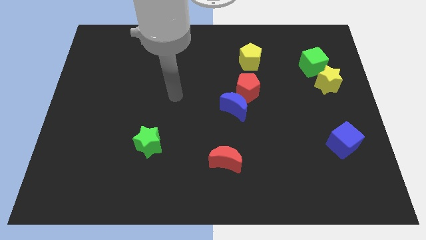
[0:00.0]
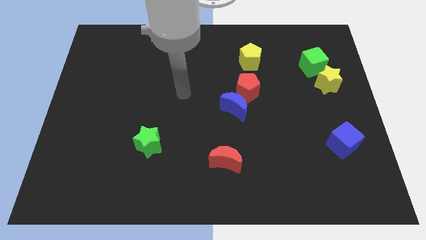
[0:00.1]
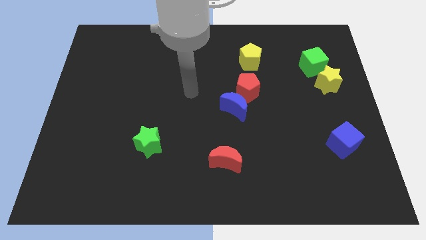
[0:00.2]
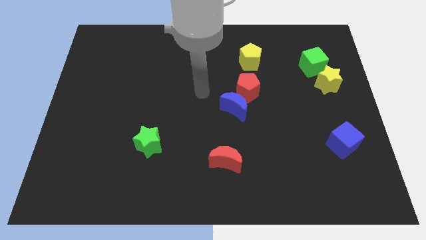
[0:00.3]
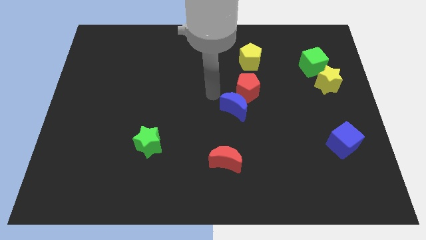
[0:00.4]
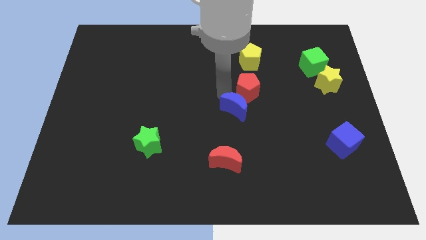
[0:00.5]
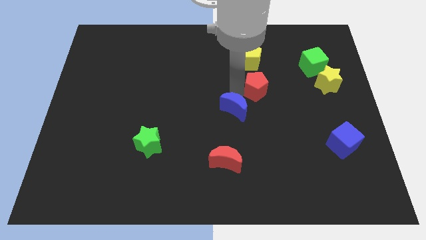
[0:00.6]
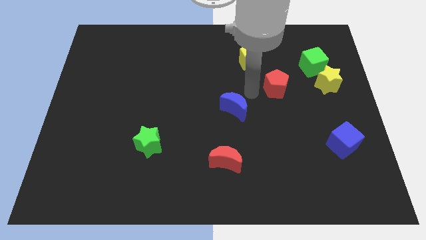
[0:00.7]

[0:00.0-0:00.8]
move the blue moon away from the red pentagon

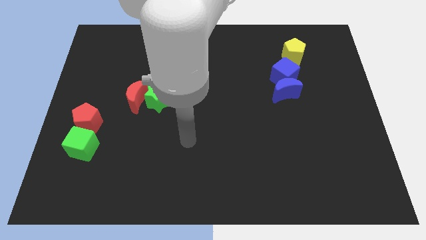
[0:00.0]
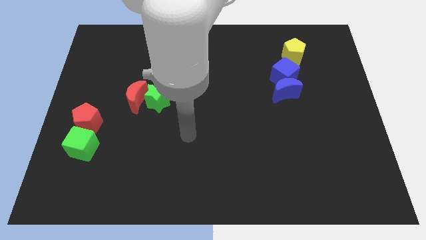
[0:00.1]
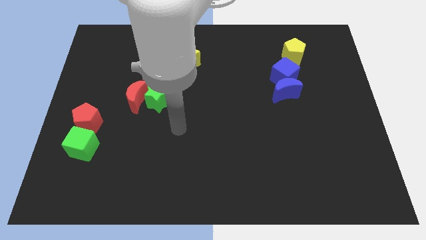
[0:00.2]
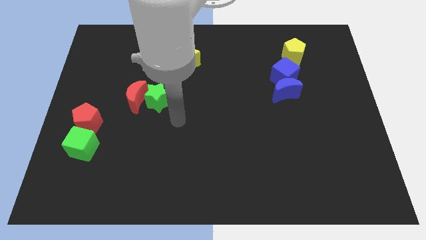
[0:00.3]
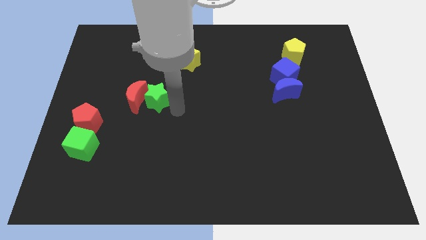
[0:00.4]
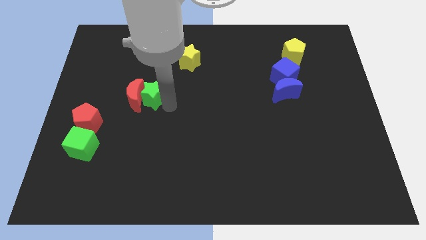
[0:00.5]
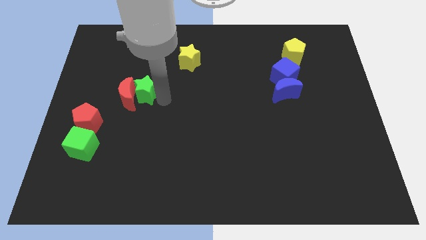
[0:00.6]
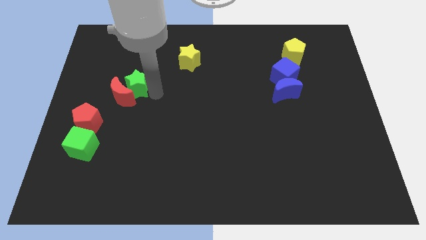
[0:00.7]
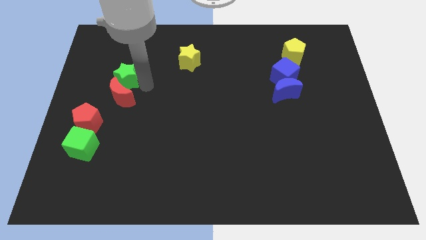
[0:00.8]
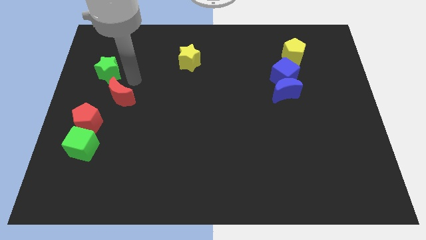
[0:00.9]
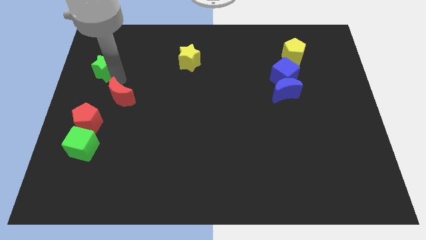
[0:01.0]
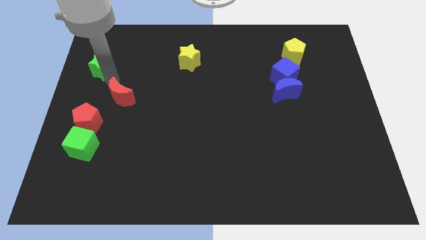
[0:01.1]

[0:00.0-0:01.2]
separate the red moon from the green star

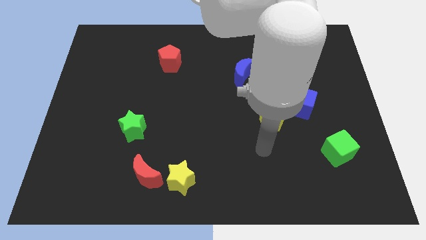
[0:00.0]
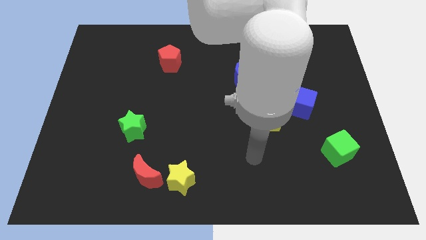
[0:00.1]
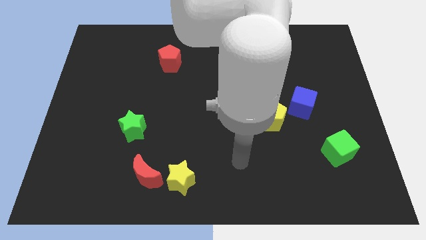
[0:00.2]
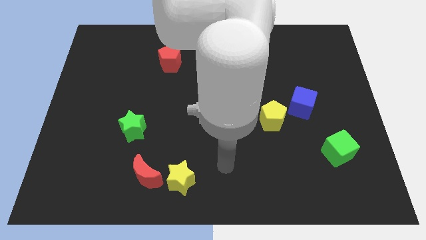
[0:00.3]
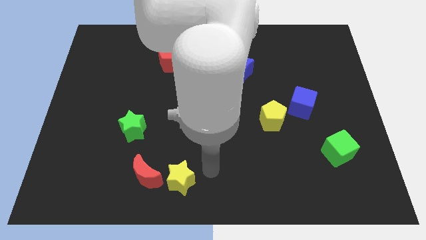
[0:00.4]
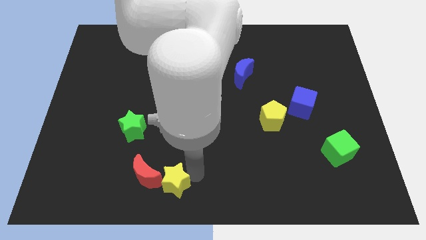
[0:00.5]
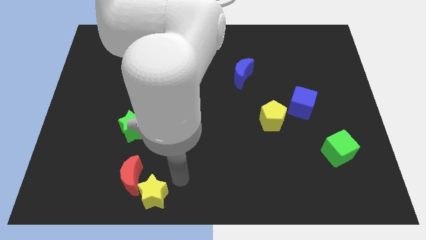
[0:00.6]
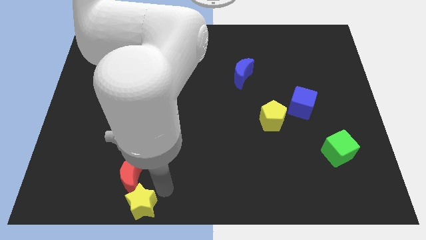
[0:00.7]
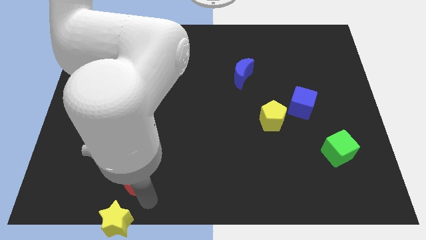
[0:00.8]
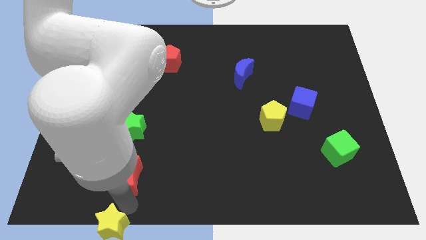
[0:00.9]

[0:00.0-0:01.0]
separate the red moon from the yellow star

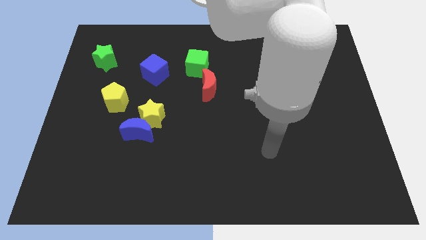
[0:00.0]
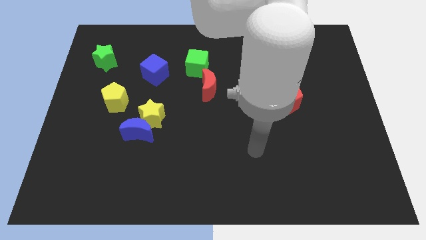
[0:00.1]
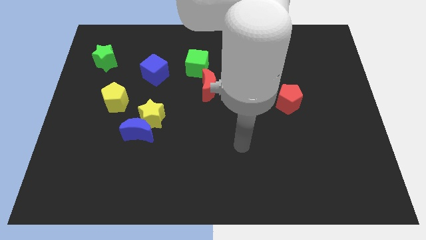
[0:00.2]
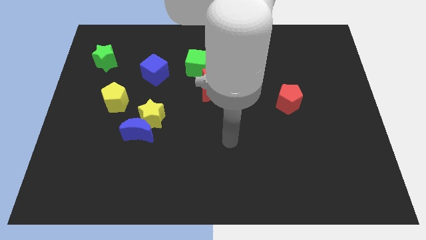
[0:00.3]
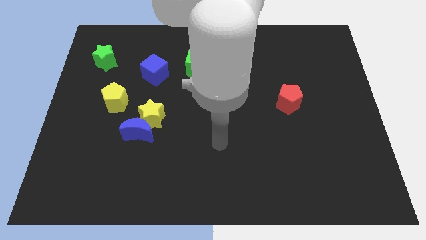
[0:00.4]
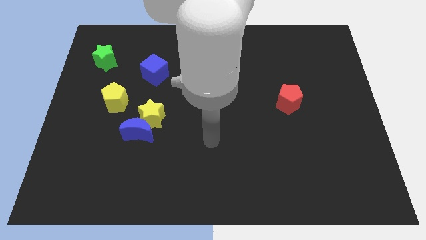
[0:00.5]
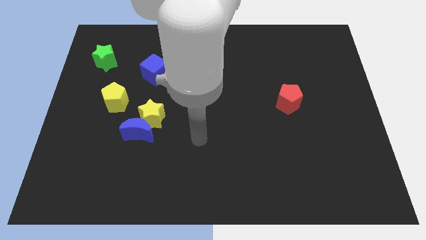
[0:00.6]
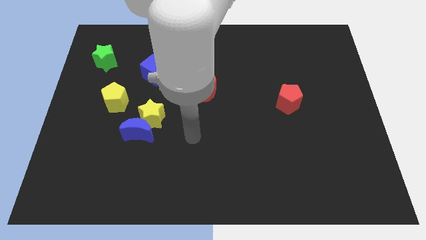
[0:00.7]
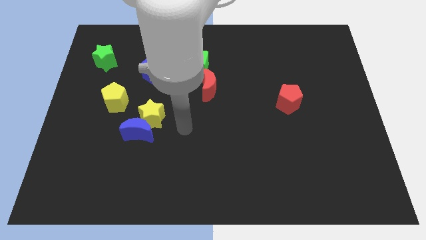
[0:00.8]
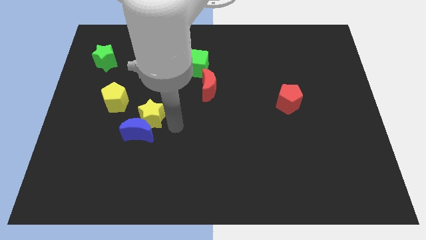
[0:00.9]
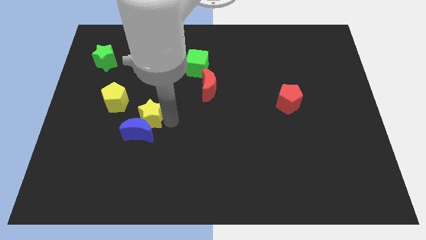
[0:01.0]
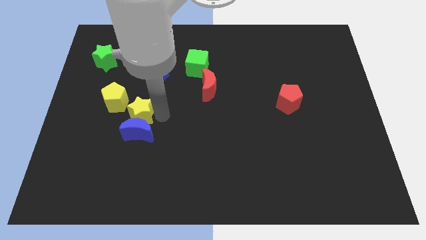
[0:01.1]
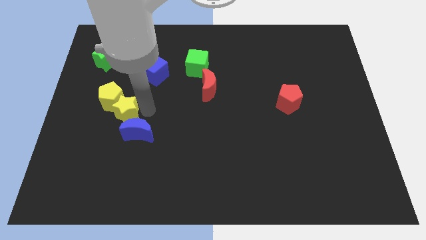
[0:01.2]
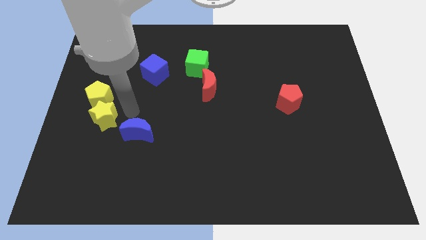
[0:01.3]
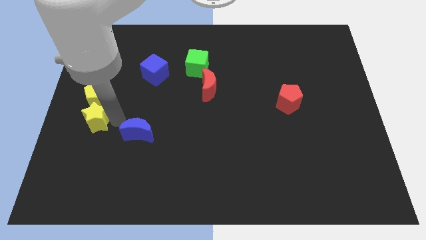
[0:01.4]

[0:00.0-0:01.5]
separate the blue moon from the yellow star

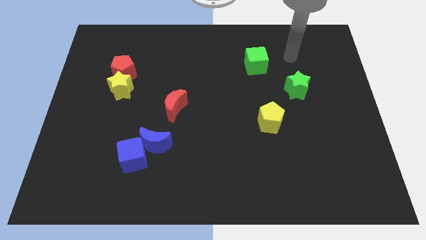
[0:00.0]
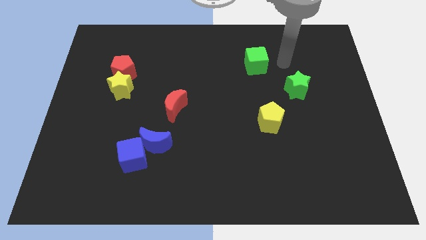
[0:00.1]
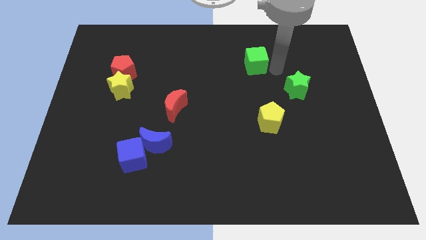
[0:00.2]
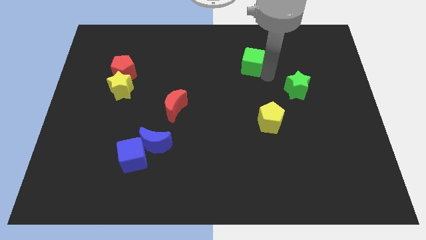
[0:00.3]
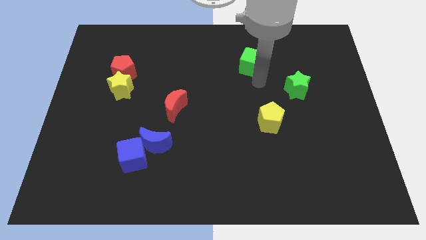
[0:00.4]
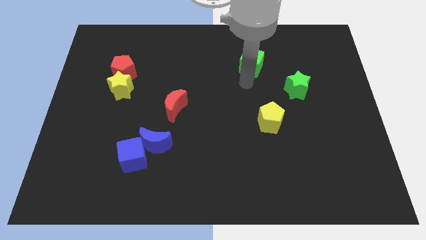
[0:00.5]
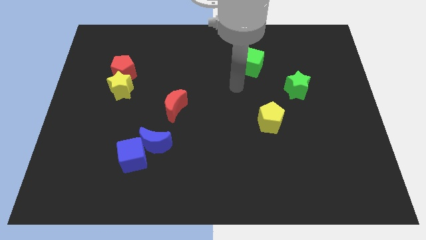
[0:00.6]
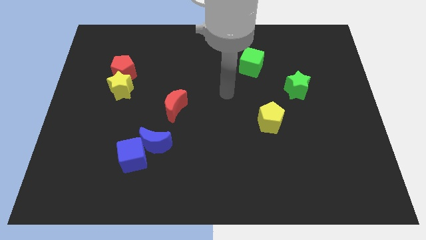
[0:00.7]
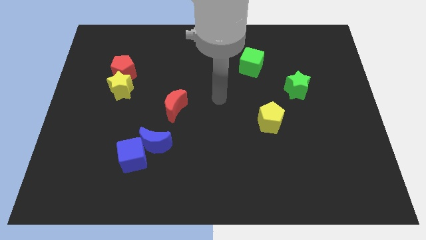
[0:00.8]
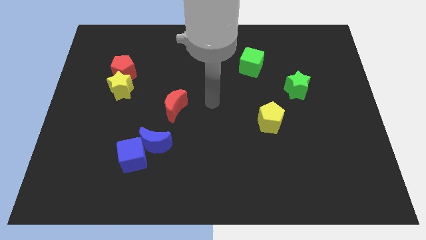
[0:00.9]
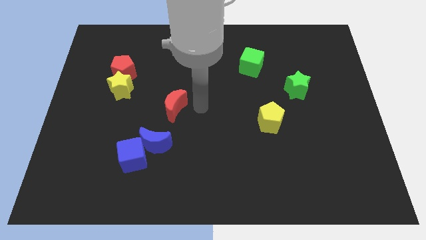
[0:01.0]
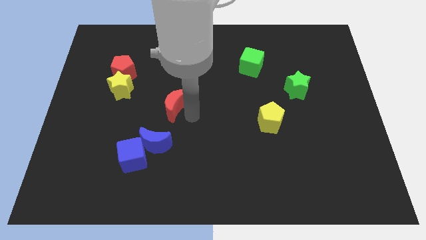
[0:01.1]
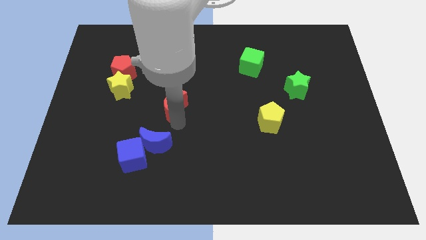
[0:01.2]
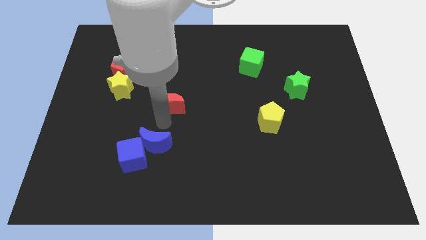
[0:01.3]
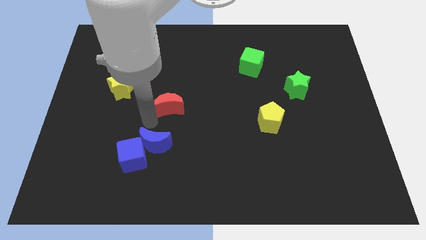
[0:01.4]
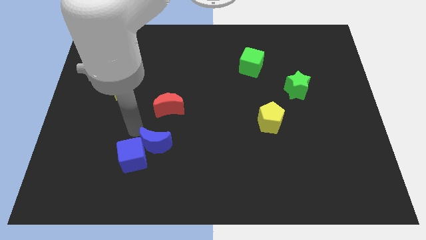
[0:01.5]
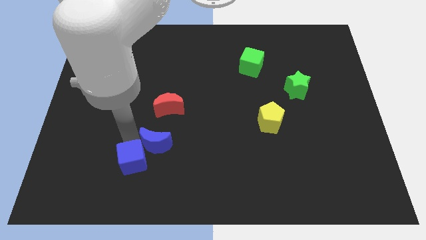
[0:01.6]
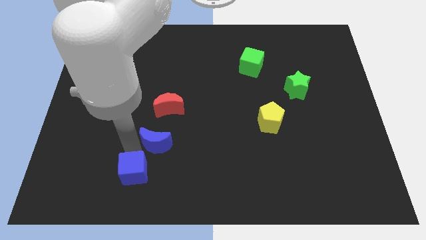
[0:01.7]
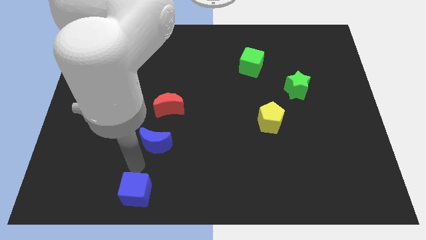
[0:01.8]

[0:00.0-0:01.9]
move the blue moon away from the blue cube

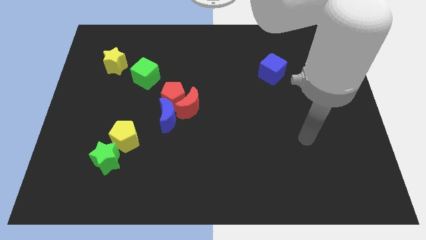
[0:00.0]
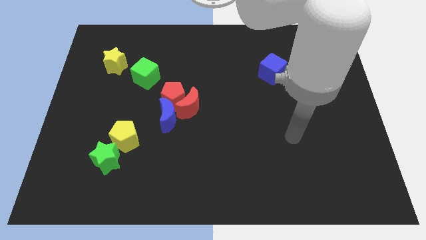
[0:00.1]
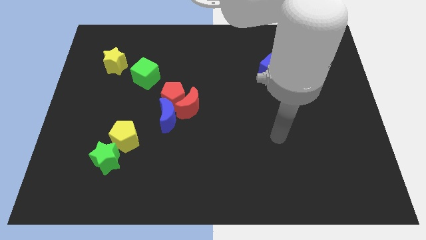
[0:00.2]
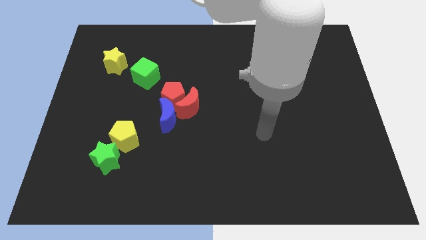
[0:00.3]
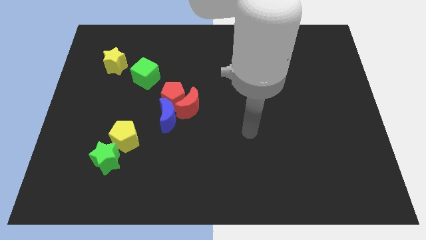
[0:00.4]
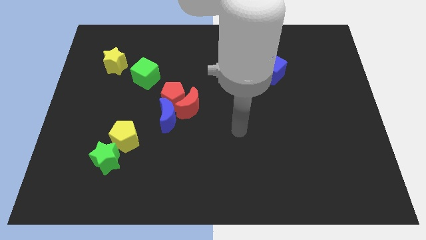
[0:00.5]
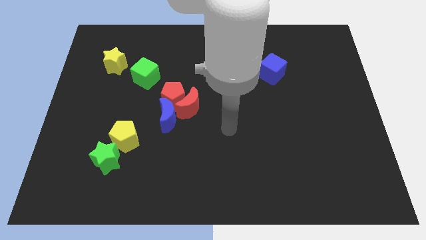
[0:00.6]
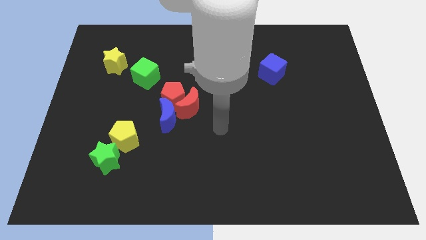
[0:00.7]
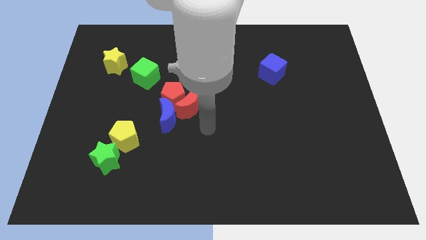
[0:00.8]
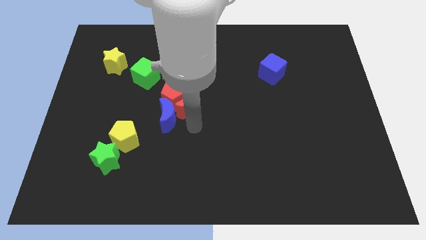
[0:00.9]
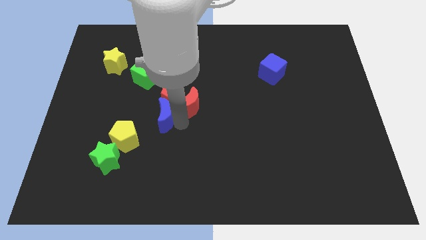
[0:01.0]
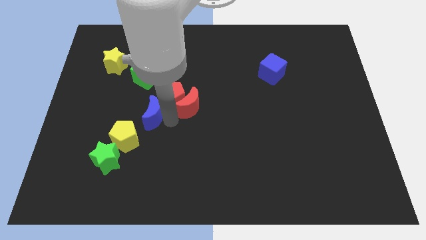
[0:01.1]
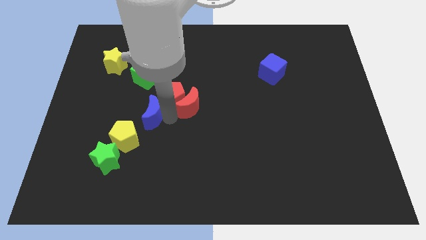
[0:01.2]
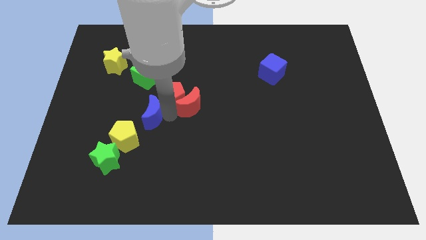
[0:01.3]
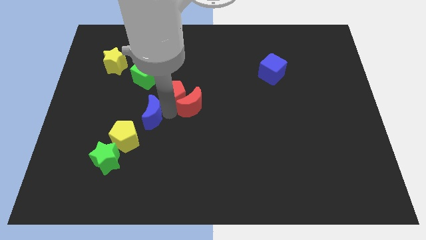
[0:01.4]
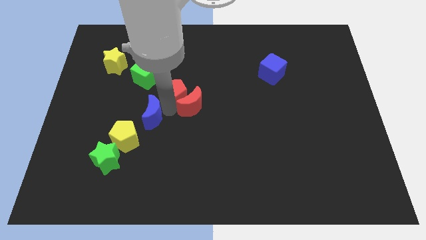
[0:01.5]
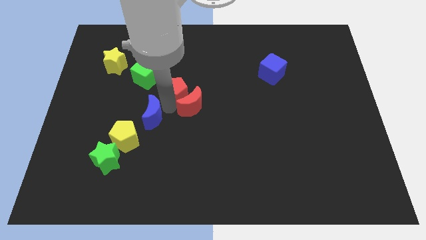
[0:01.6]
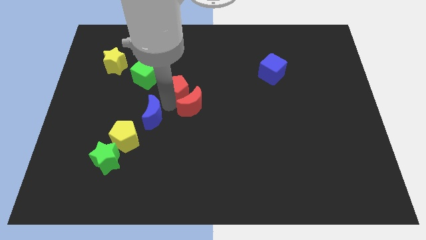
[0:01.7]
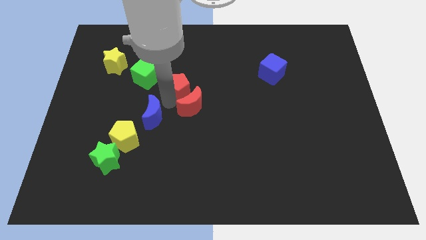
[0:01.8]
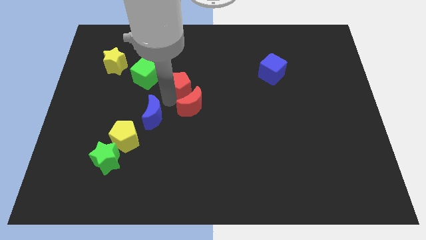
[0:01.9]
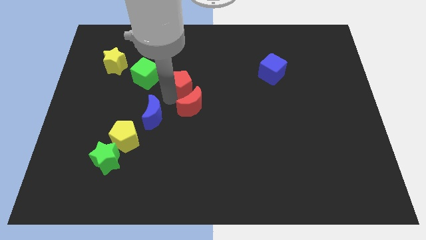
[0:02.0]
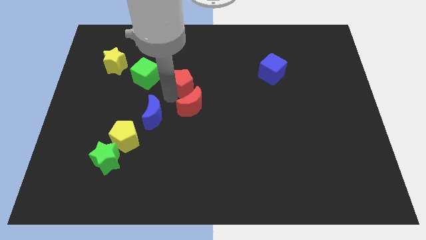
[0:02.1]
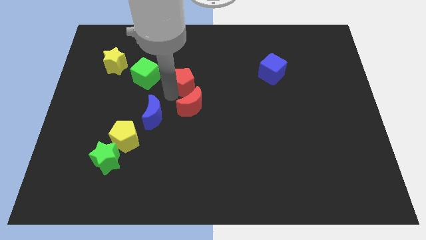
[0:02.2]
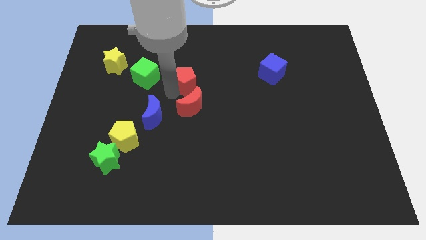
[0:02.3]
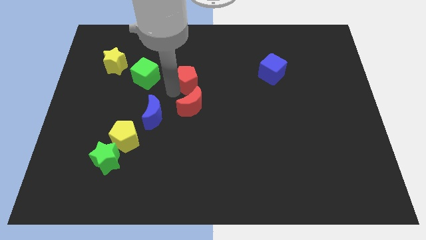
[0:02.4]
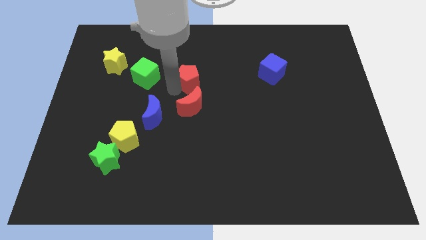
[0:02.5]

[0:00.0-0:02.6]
separate the red pentagon from the red moon and blue moon

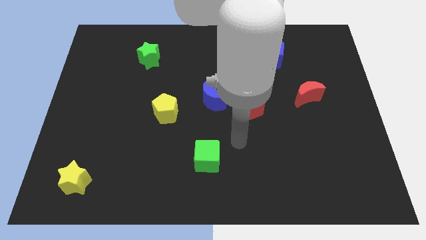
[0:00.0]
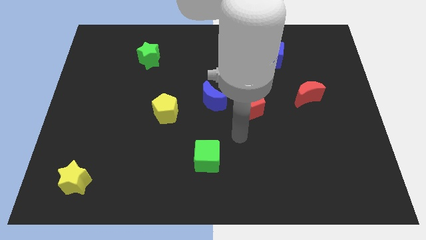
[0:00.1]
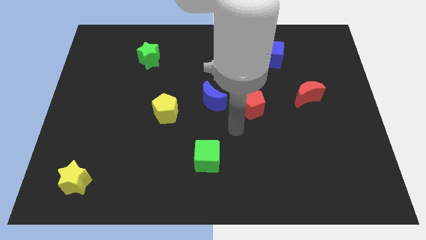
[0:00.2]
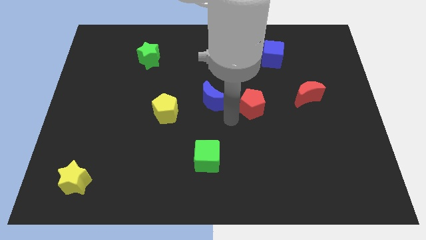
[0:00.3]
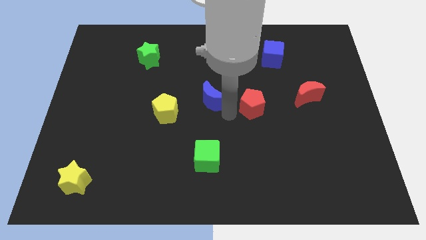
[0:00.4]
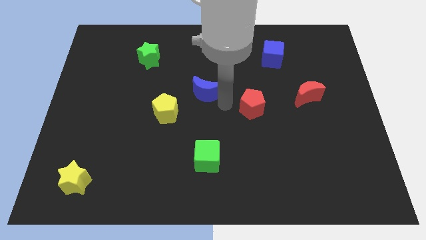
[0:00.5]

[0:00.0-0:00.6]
pull the red pentagon apart from the blue moon
